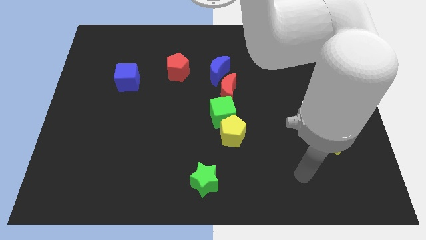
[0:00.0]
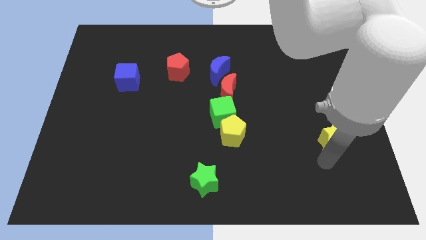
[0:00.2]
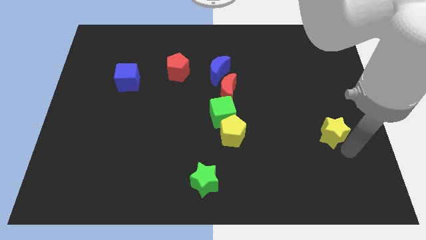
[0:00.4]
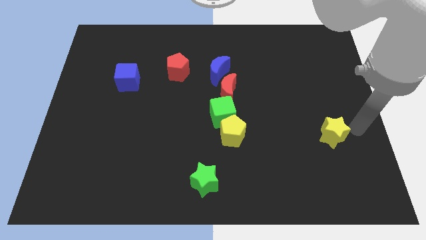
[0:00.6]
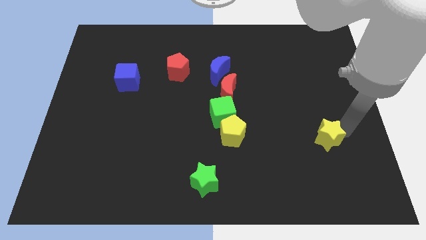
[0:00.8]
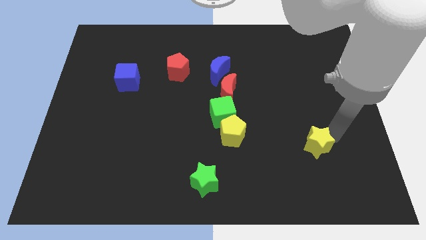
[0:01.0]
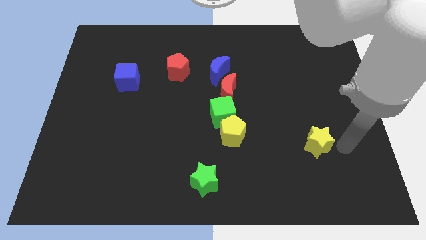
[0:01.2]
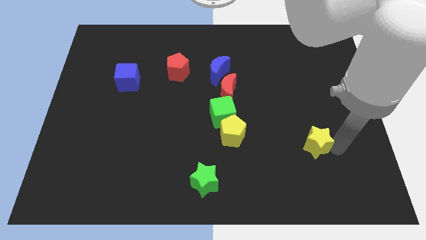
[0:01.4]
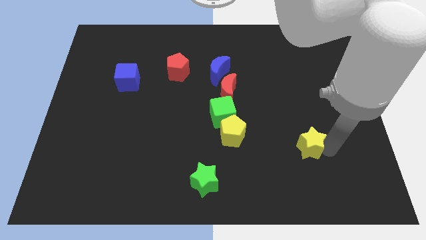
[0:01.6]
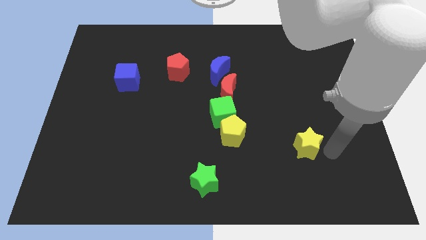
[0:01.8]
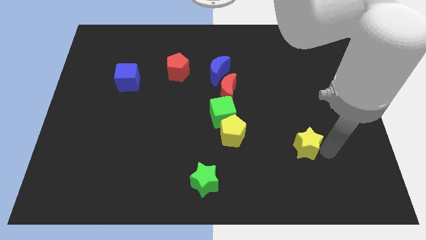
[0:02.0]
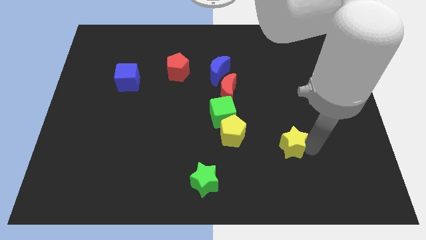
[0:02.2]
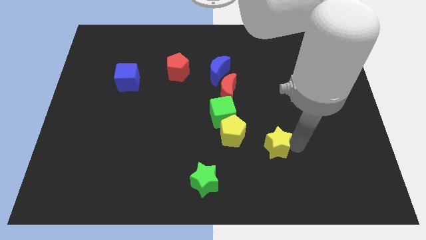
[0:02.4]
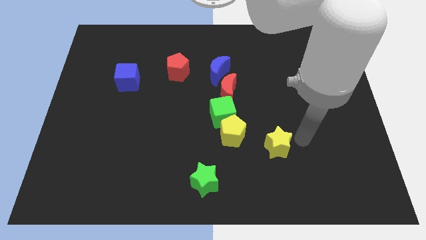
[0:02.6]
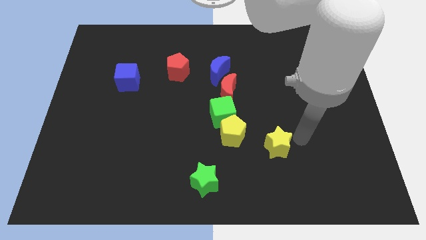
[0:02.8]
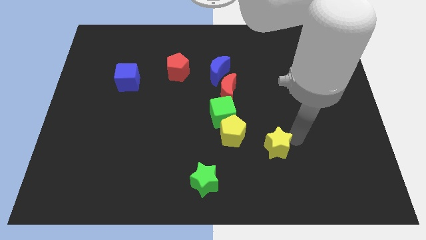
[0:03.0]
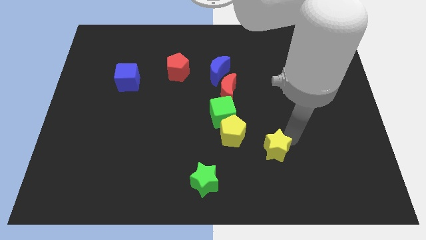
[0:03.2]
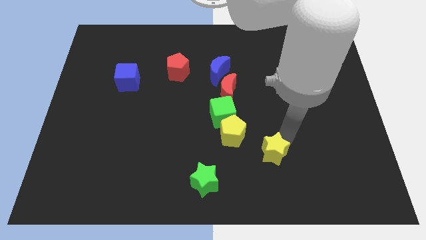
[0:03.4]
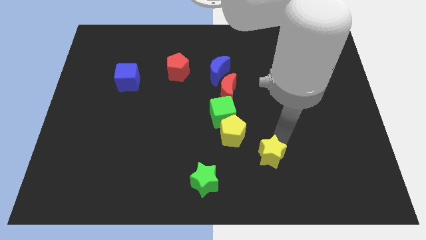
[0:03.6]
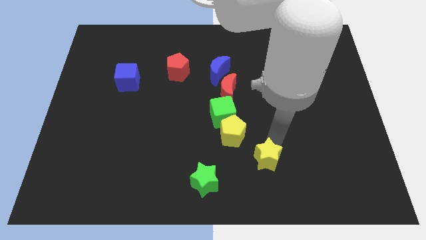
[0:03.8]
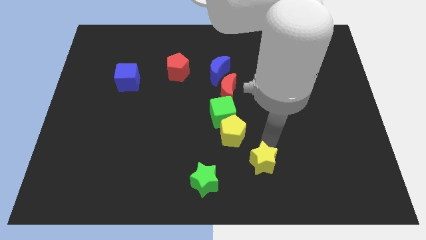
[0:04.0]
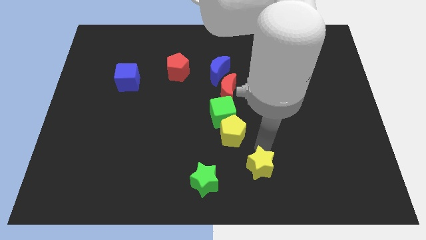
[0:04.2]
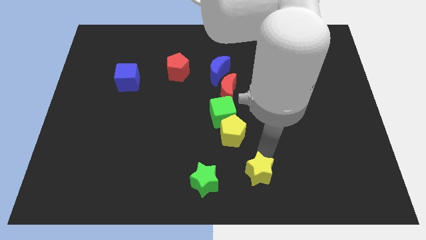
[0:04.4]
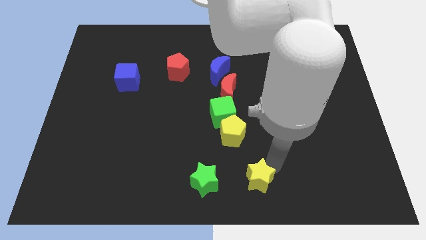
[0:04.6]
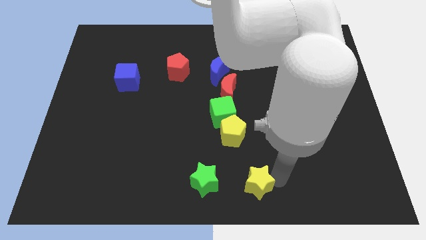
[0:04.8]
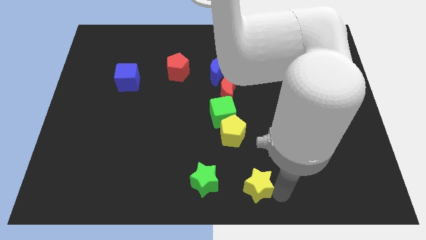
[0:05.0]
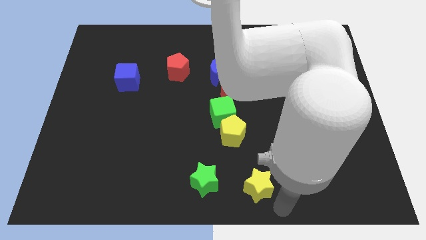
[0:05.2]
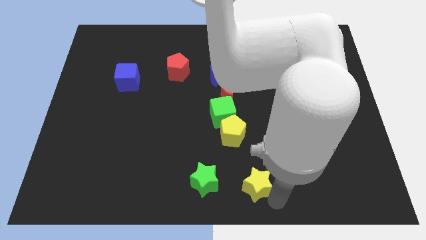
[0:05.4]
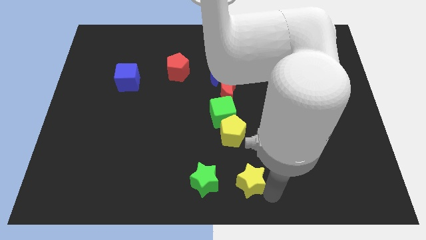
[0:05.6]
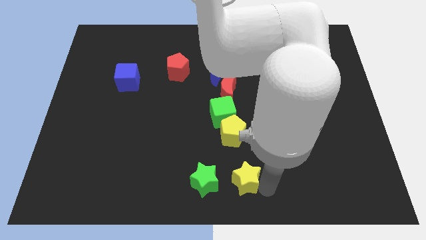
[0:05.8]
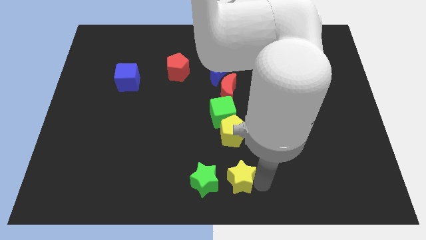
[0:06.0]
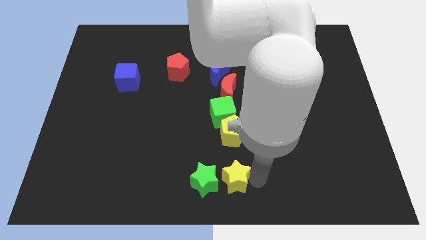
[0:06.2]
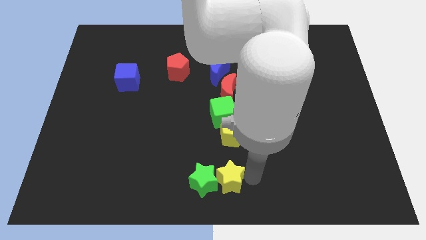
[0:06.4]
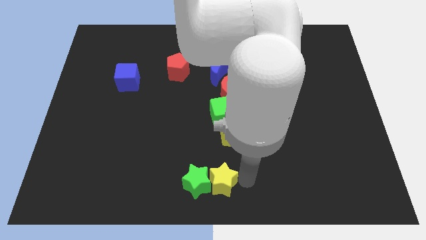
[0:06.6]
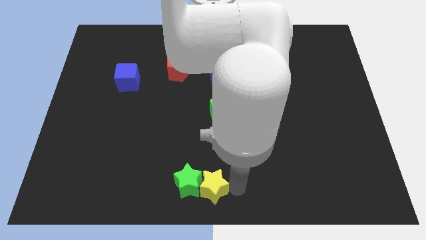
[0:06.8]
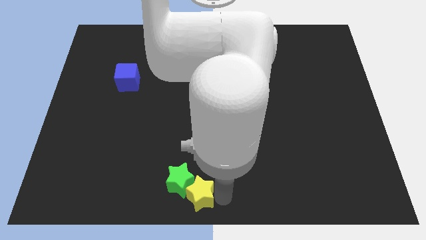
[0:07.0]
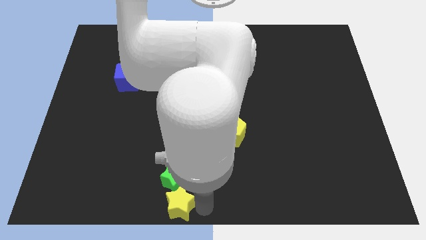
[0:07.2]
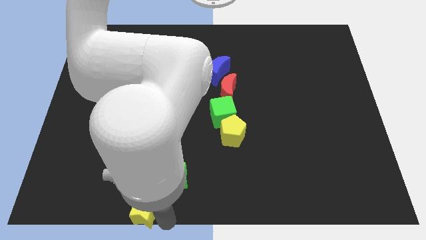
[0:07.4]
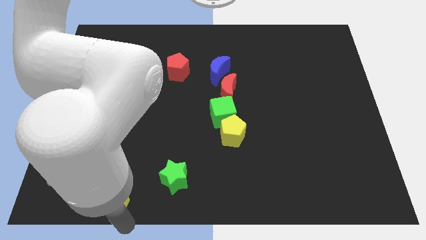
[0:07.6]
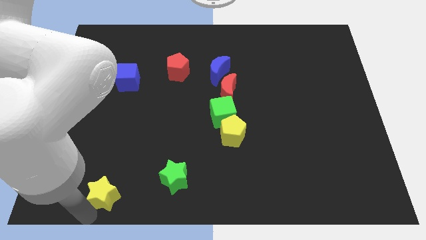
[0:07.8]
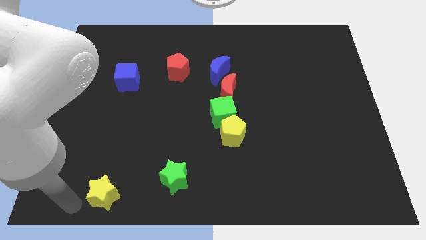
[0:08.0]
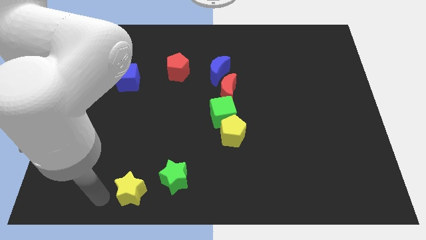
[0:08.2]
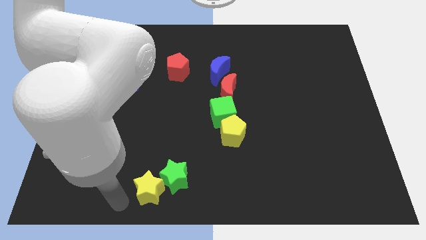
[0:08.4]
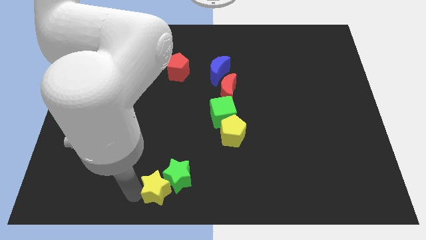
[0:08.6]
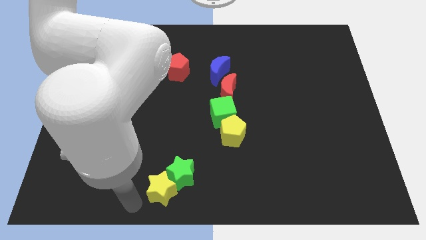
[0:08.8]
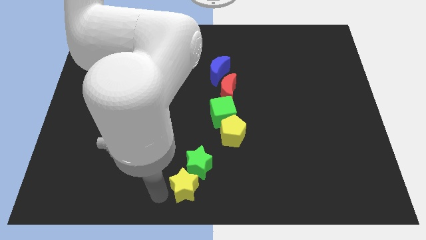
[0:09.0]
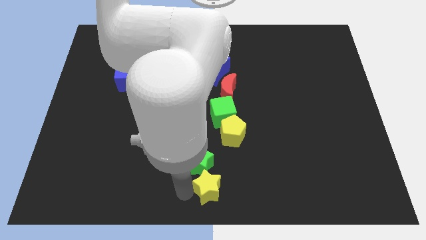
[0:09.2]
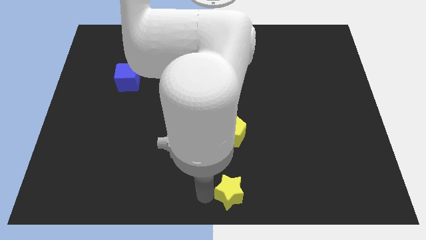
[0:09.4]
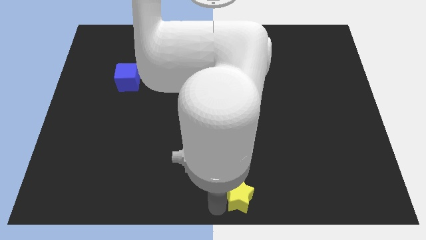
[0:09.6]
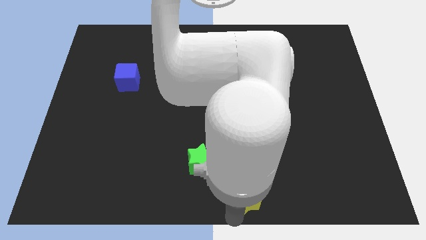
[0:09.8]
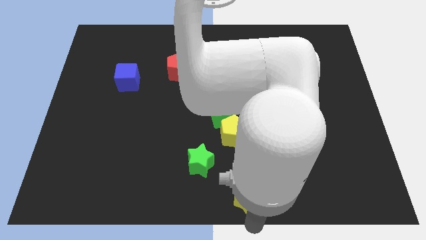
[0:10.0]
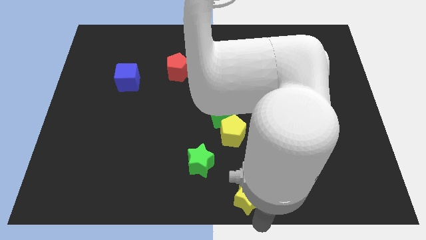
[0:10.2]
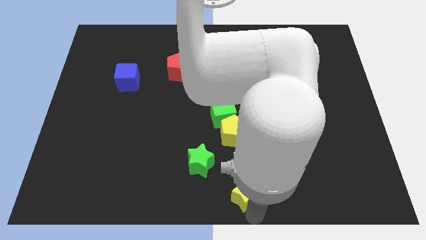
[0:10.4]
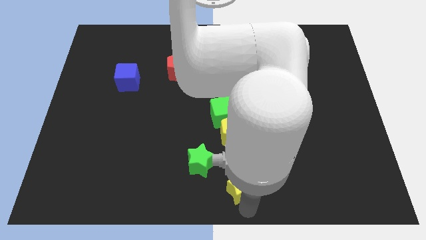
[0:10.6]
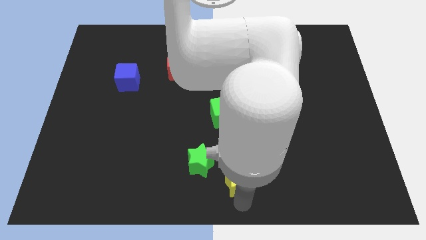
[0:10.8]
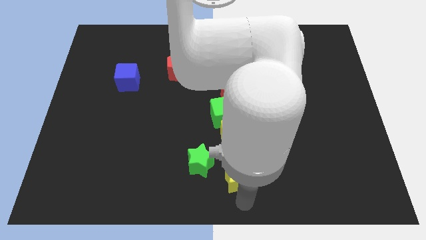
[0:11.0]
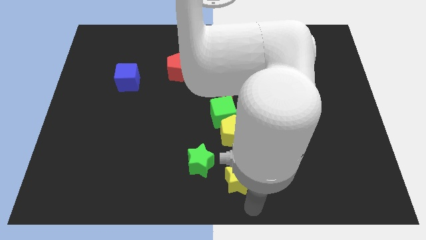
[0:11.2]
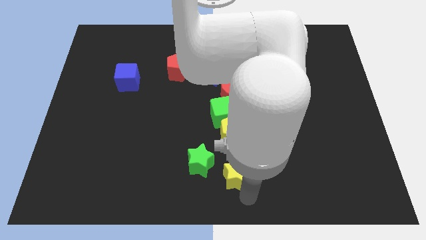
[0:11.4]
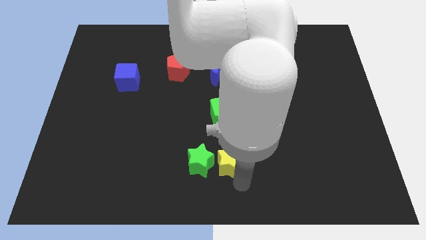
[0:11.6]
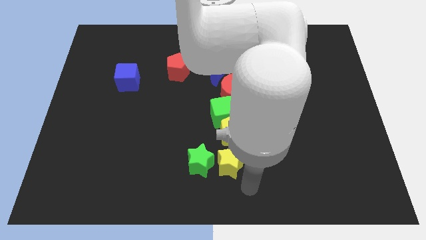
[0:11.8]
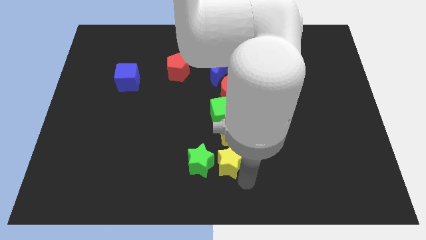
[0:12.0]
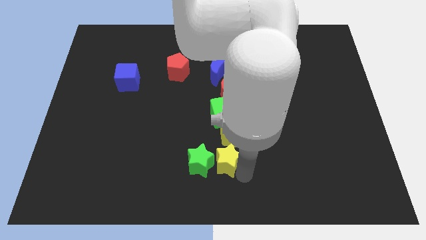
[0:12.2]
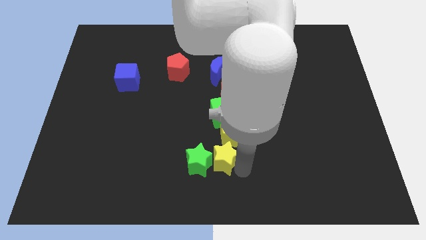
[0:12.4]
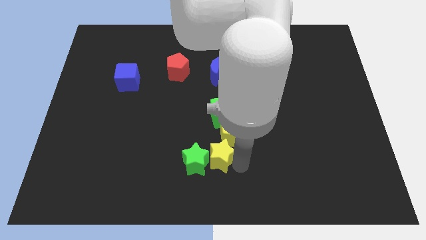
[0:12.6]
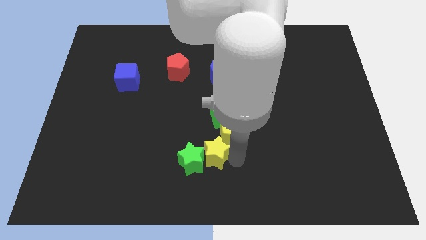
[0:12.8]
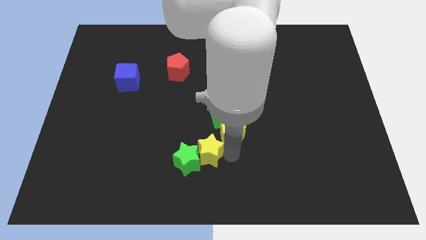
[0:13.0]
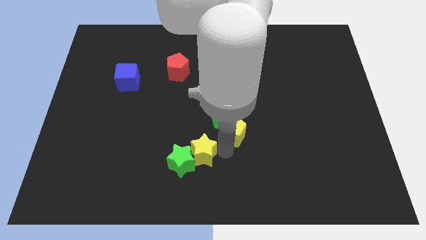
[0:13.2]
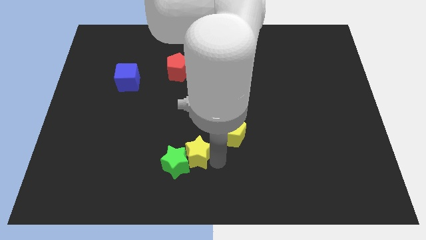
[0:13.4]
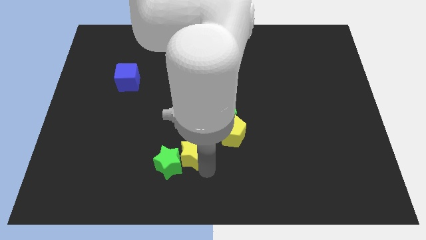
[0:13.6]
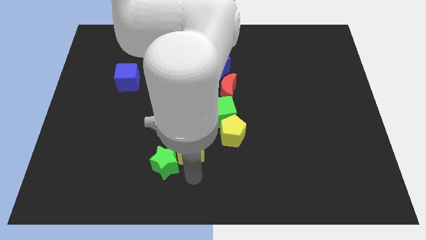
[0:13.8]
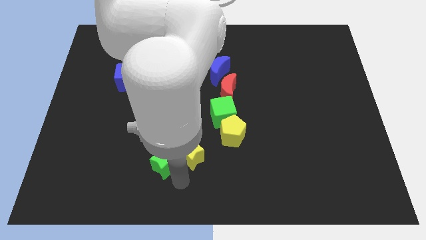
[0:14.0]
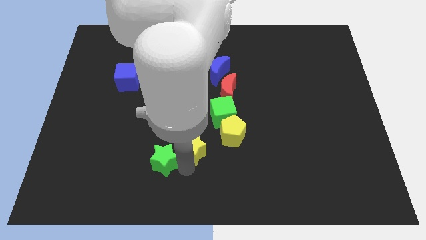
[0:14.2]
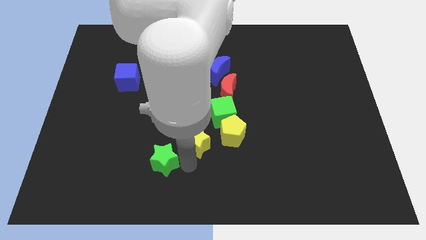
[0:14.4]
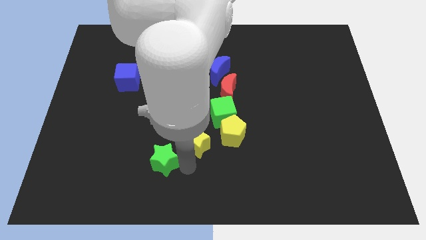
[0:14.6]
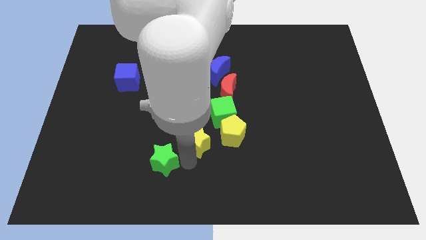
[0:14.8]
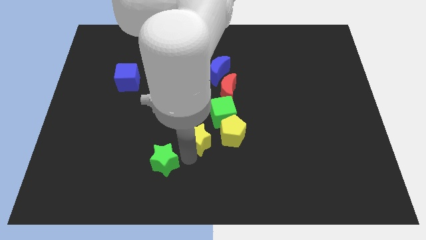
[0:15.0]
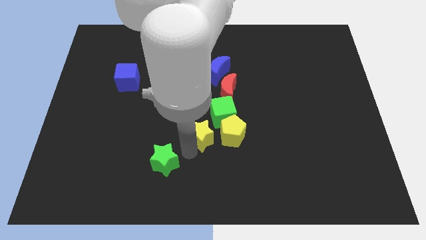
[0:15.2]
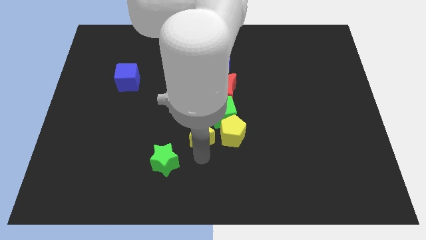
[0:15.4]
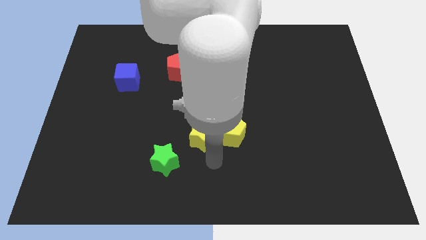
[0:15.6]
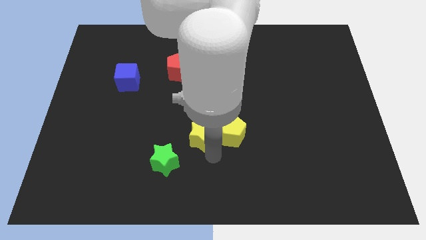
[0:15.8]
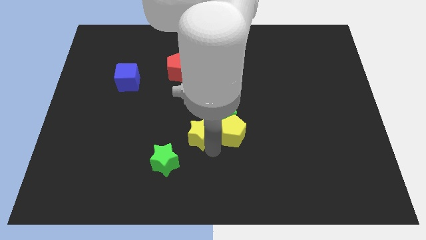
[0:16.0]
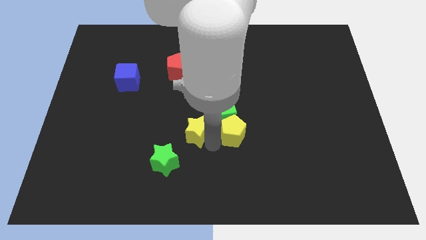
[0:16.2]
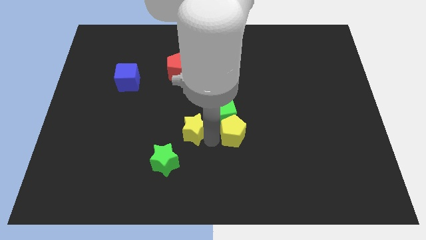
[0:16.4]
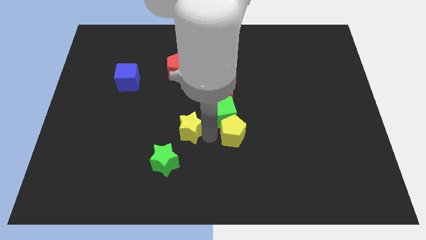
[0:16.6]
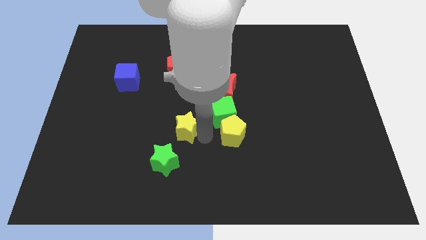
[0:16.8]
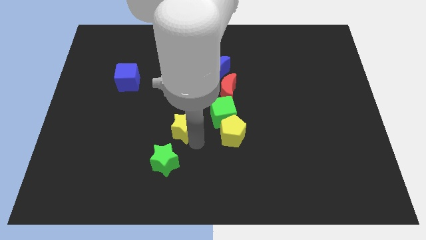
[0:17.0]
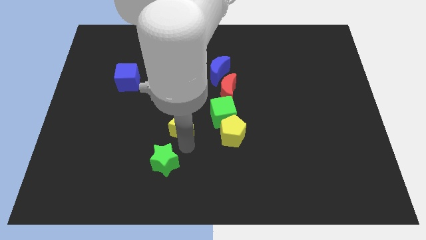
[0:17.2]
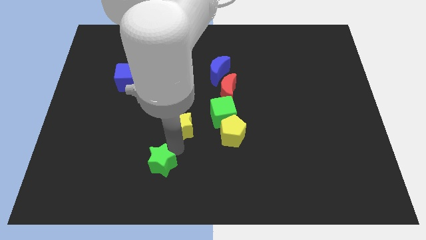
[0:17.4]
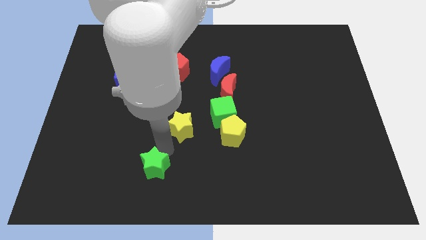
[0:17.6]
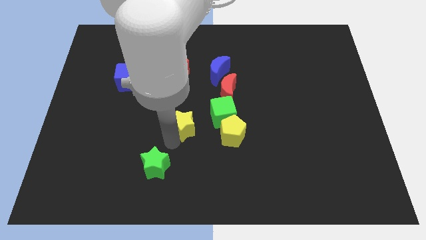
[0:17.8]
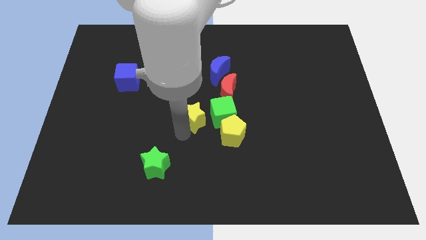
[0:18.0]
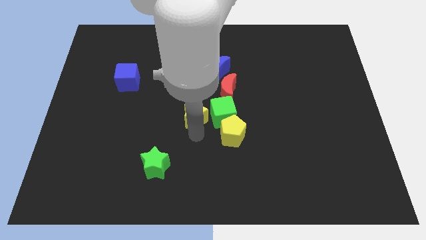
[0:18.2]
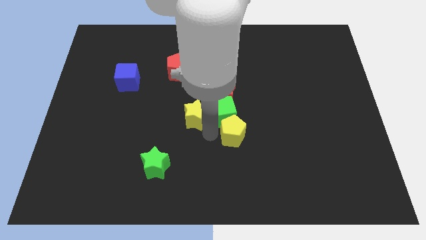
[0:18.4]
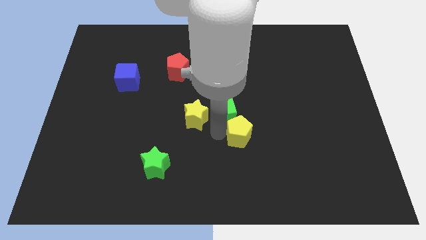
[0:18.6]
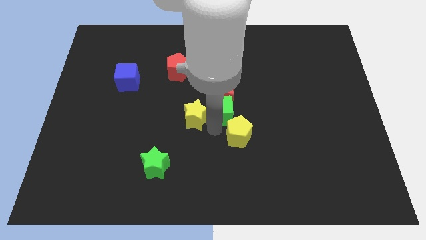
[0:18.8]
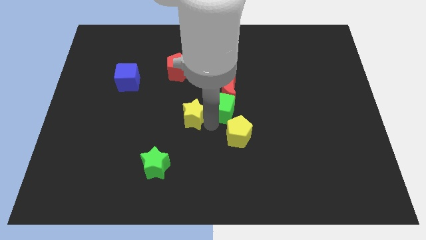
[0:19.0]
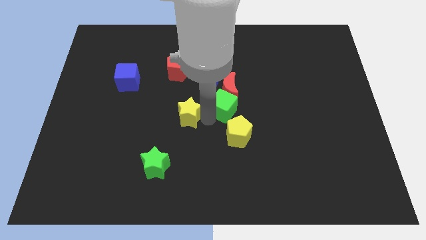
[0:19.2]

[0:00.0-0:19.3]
put the yellow star below the red pentagon
